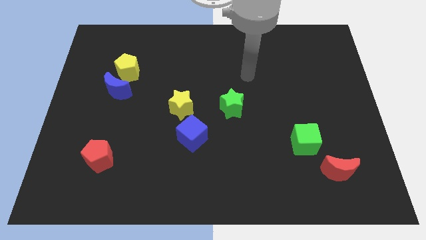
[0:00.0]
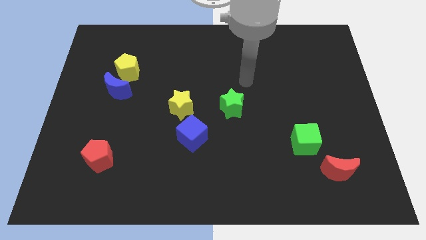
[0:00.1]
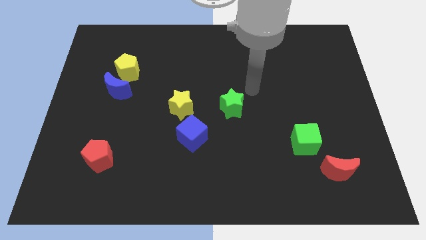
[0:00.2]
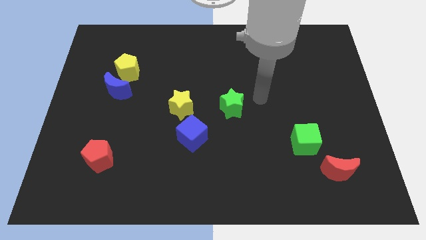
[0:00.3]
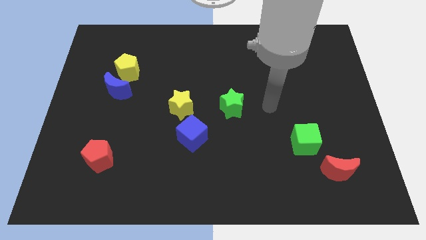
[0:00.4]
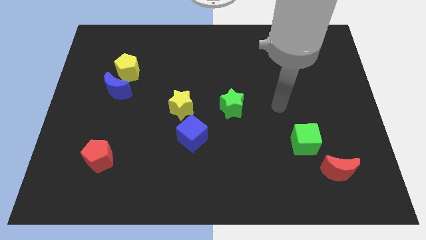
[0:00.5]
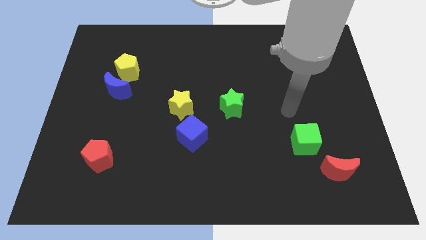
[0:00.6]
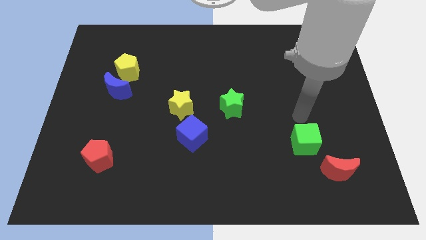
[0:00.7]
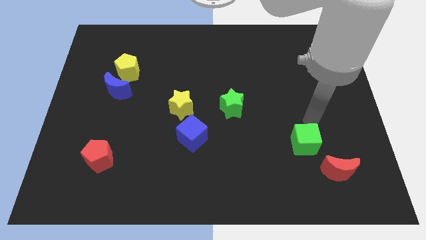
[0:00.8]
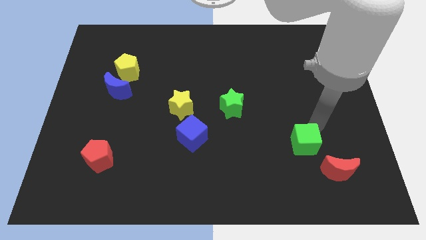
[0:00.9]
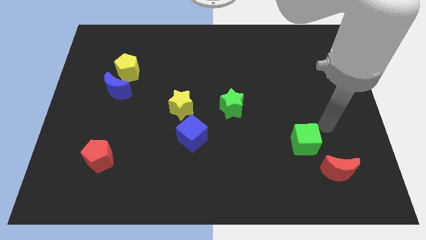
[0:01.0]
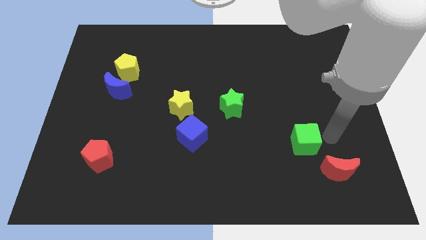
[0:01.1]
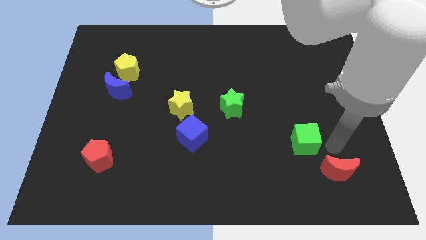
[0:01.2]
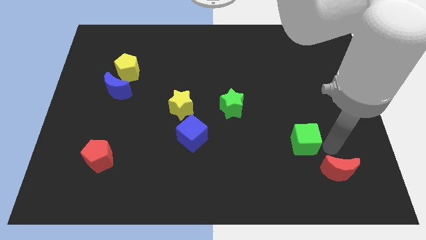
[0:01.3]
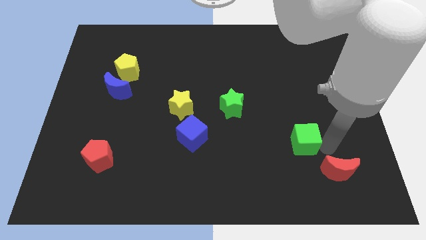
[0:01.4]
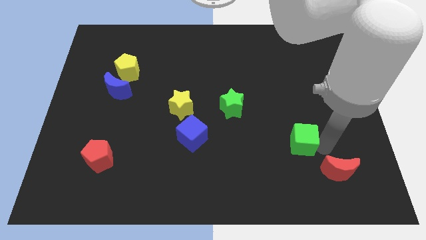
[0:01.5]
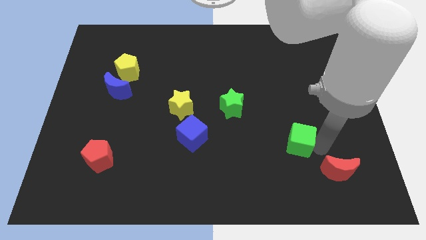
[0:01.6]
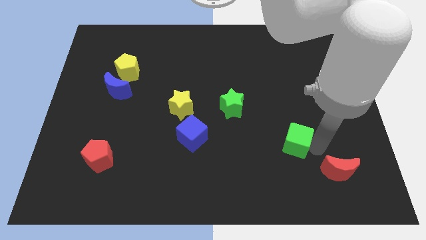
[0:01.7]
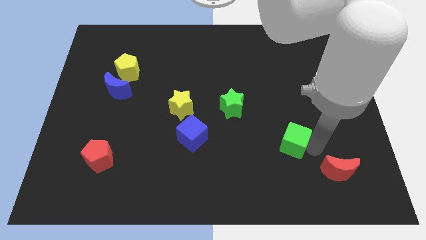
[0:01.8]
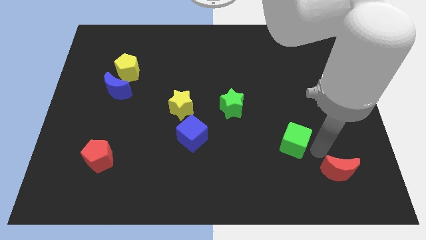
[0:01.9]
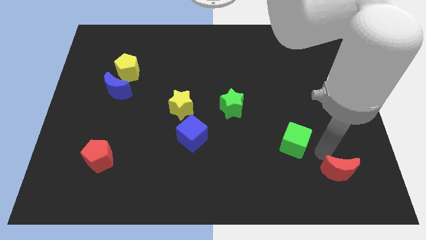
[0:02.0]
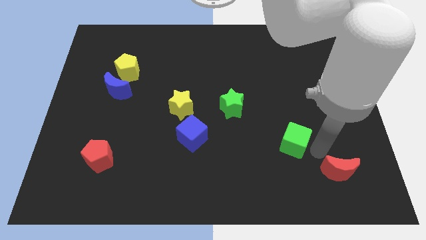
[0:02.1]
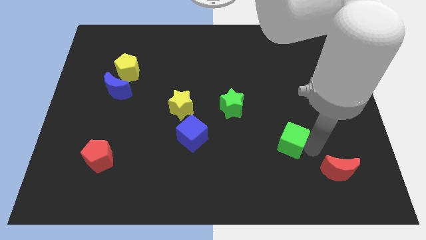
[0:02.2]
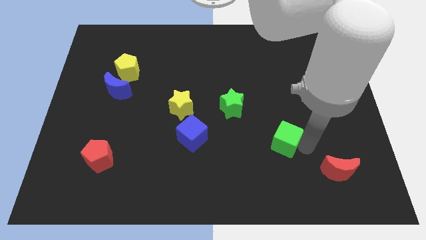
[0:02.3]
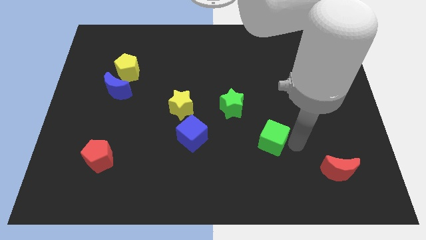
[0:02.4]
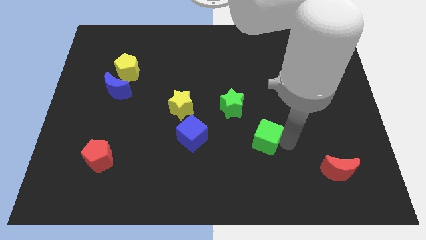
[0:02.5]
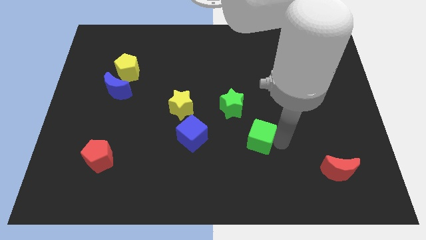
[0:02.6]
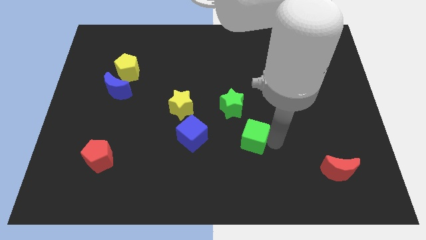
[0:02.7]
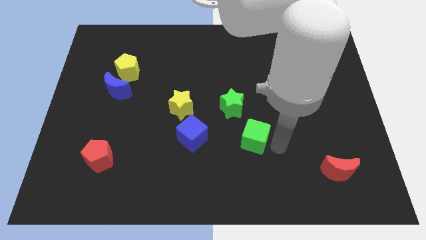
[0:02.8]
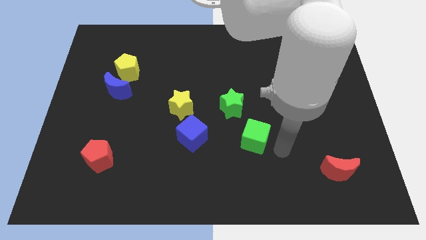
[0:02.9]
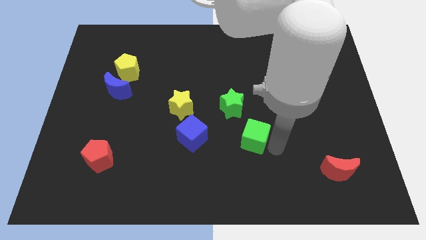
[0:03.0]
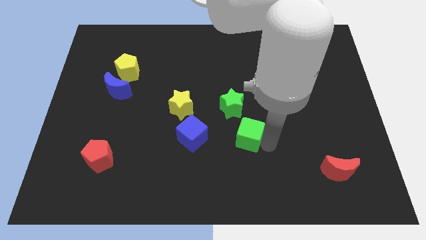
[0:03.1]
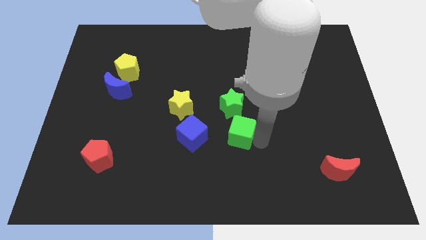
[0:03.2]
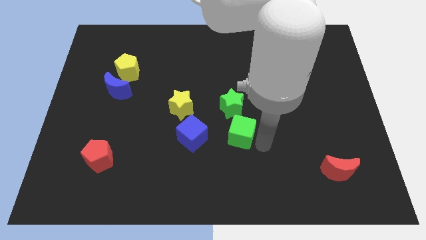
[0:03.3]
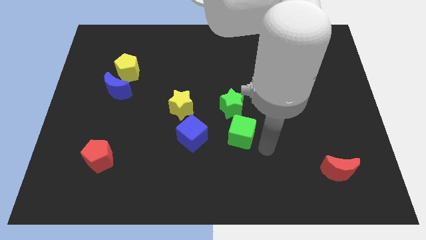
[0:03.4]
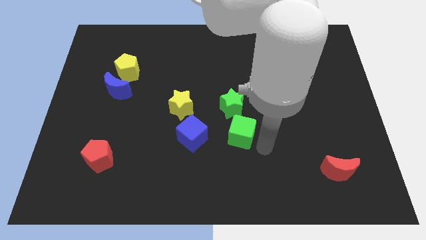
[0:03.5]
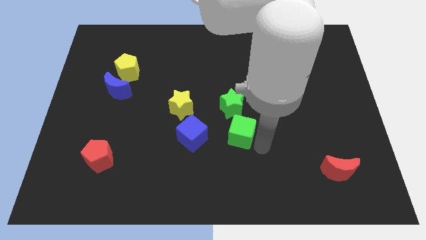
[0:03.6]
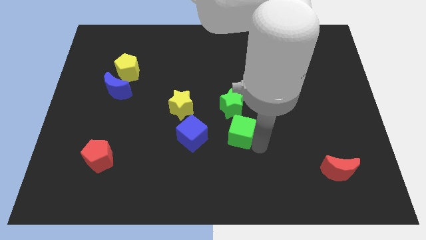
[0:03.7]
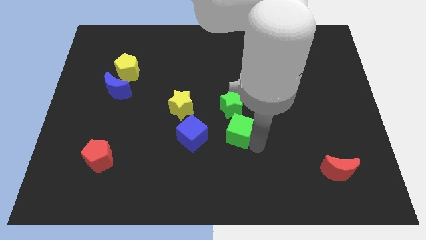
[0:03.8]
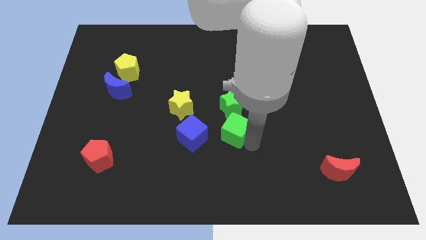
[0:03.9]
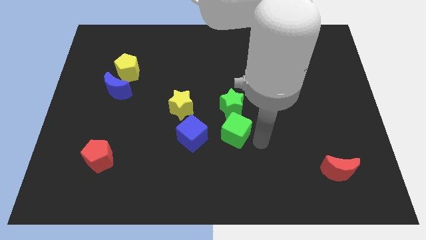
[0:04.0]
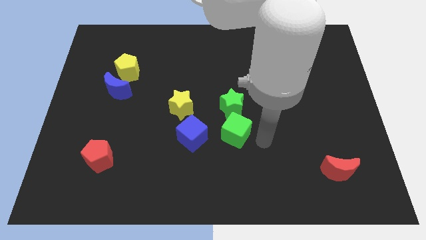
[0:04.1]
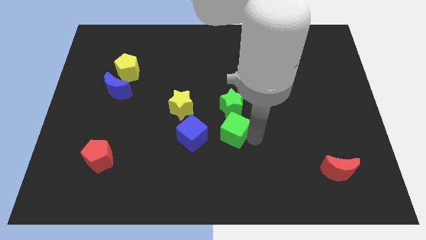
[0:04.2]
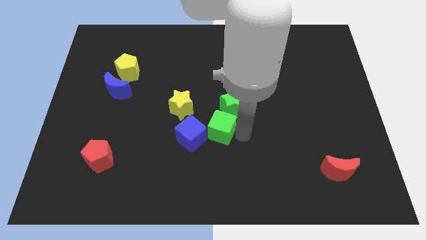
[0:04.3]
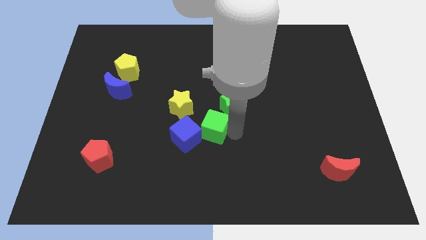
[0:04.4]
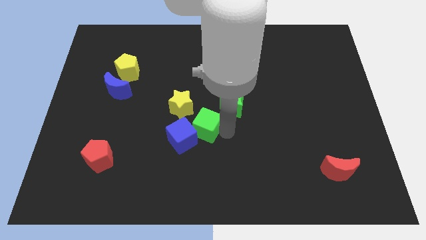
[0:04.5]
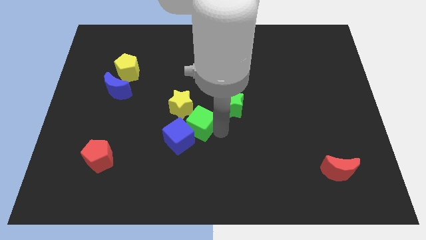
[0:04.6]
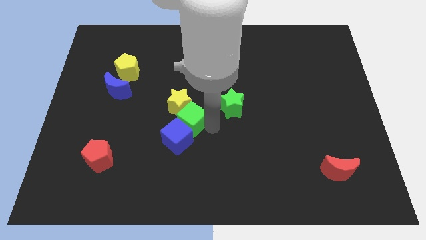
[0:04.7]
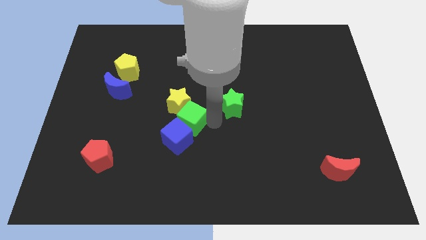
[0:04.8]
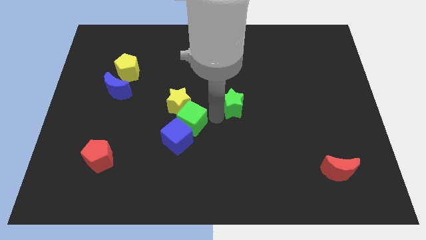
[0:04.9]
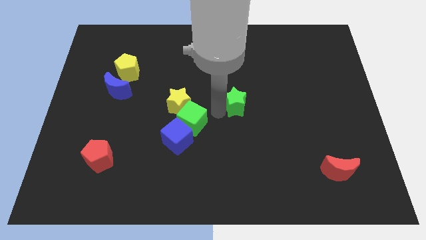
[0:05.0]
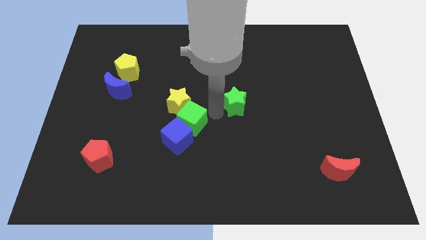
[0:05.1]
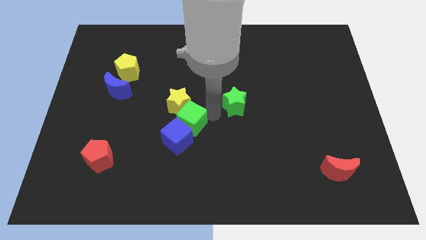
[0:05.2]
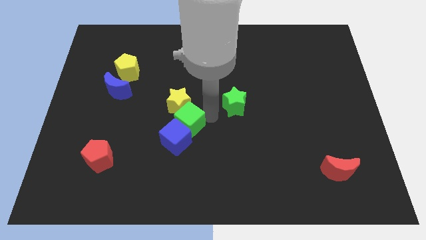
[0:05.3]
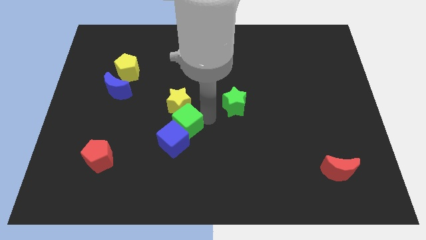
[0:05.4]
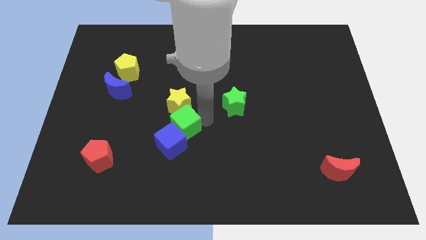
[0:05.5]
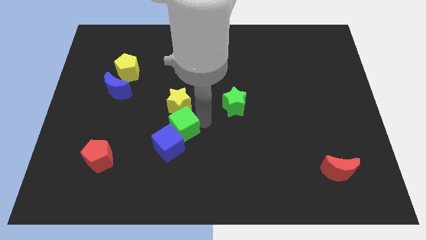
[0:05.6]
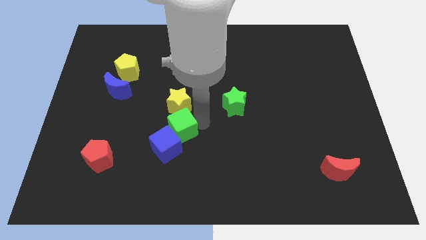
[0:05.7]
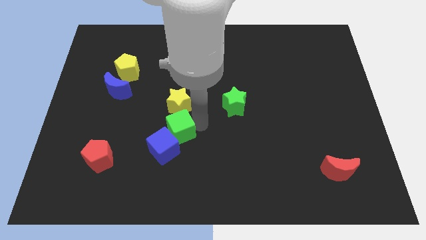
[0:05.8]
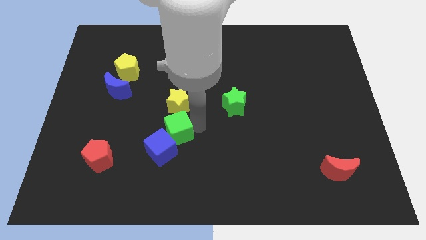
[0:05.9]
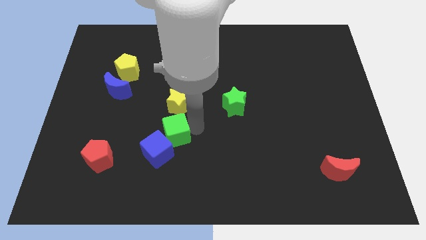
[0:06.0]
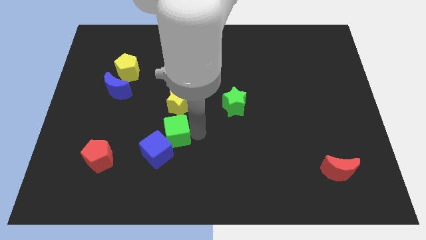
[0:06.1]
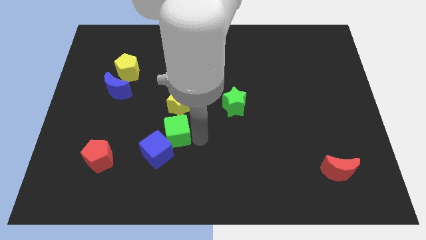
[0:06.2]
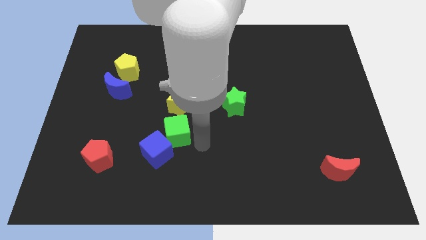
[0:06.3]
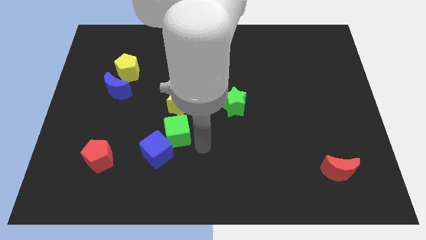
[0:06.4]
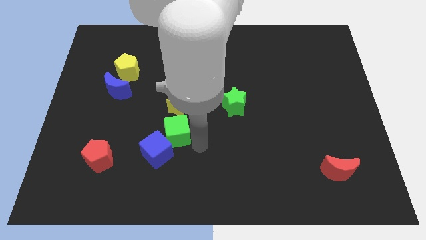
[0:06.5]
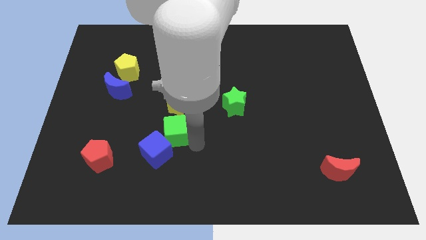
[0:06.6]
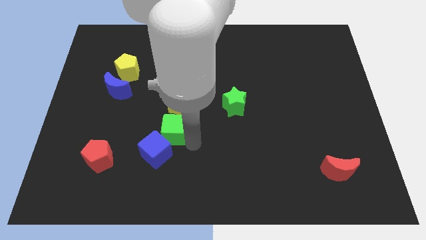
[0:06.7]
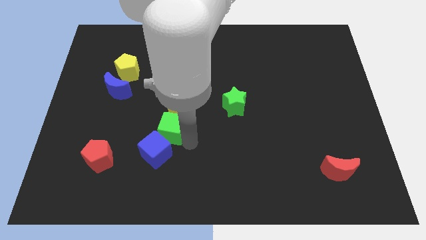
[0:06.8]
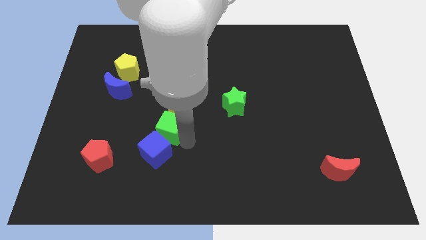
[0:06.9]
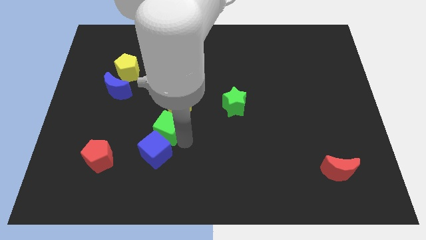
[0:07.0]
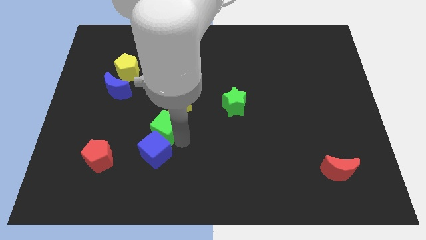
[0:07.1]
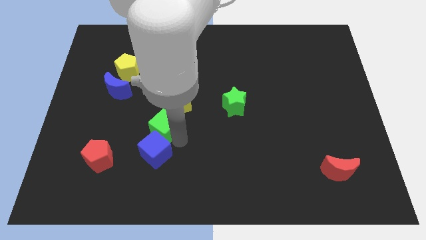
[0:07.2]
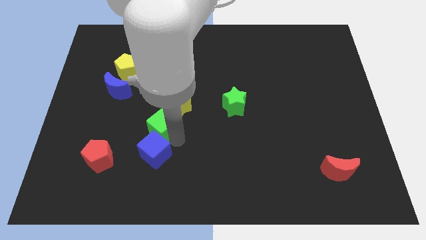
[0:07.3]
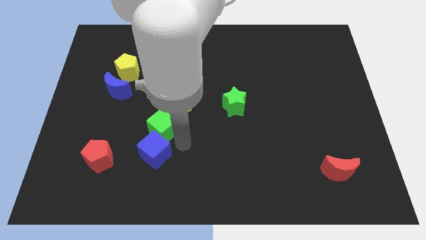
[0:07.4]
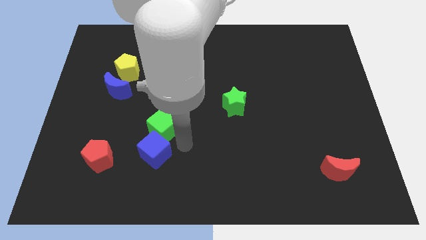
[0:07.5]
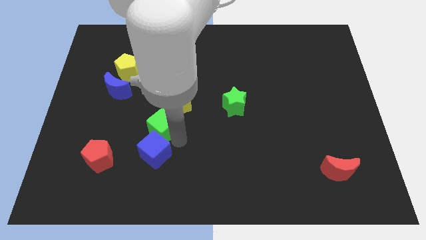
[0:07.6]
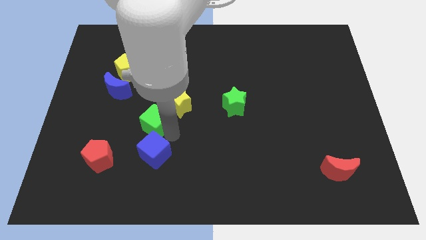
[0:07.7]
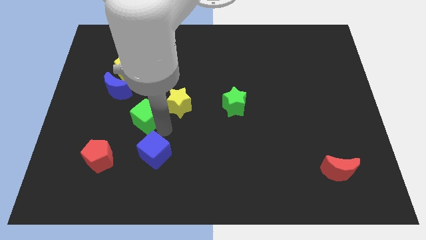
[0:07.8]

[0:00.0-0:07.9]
move the green cube just left of the yellow star
